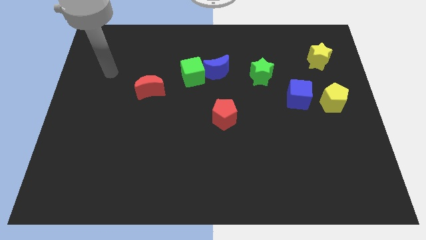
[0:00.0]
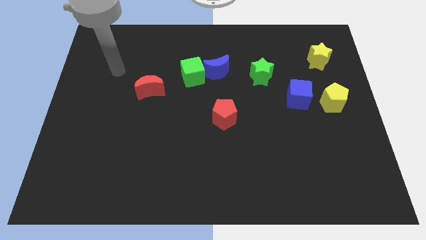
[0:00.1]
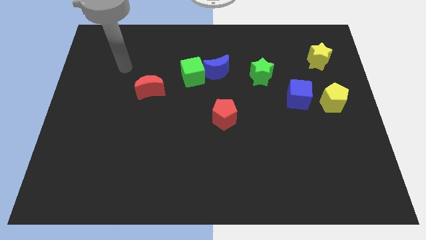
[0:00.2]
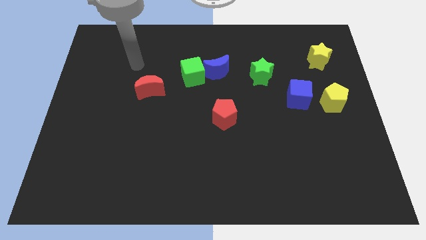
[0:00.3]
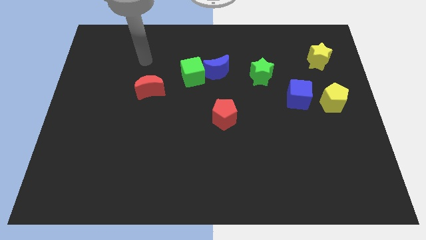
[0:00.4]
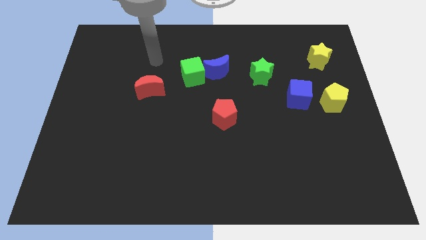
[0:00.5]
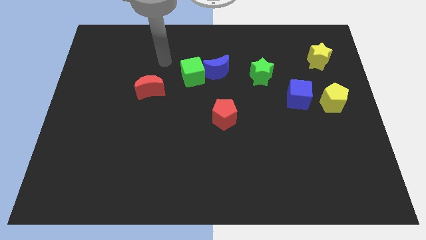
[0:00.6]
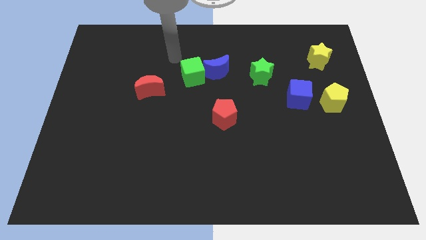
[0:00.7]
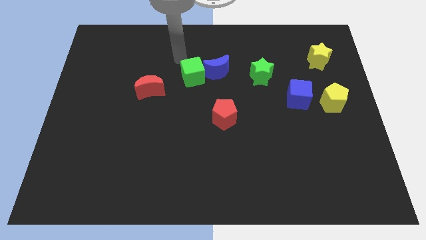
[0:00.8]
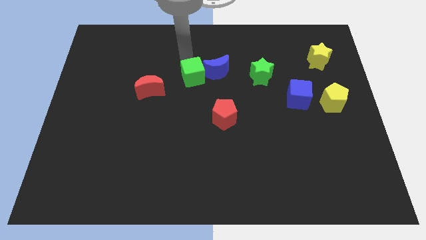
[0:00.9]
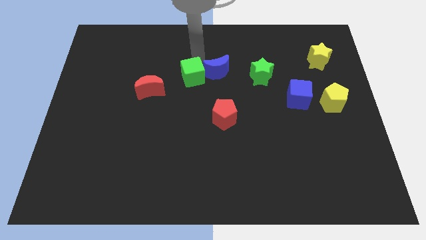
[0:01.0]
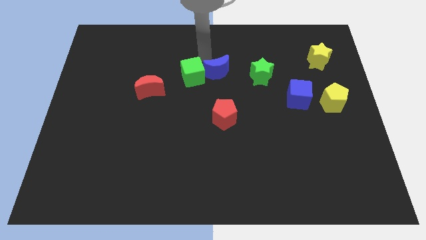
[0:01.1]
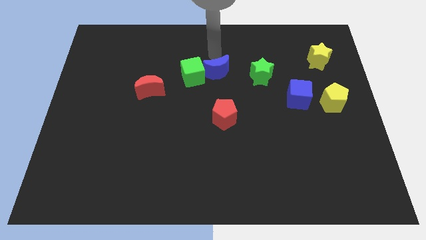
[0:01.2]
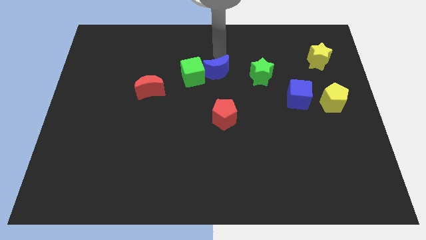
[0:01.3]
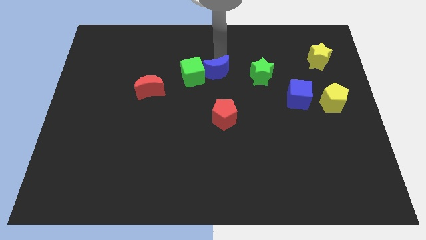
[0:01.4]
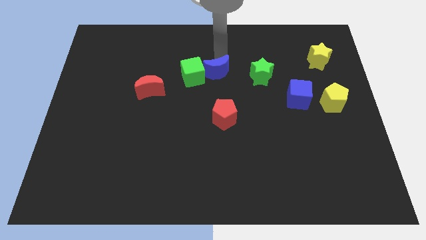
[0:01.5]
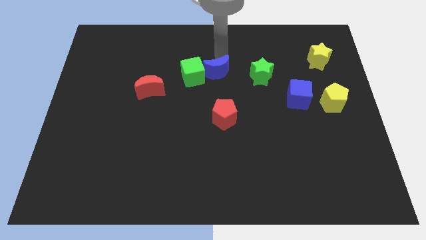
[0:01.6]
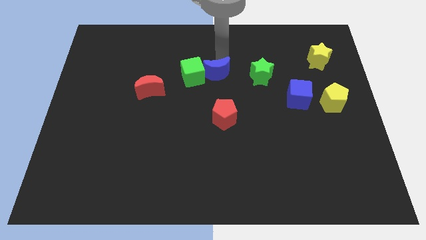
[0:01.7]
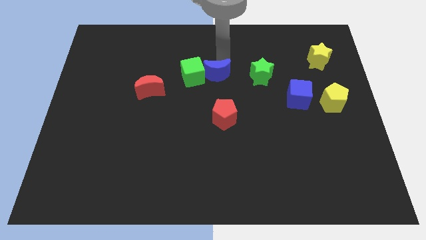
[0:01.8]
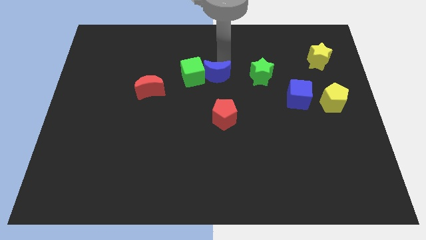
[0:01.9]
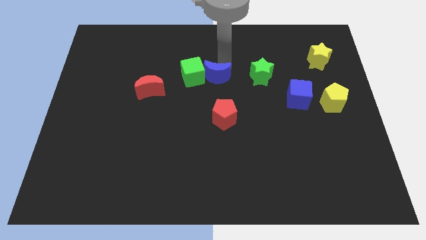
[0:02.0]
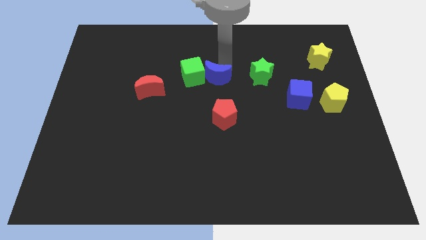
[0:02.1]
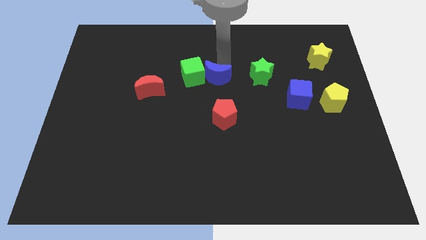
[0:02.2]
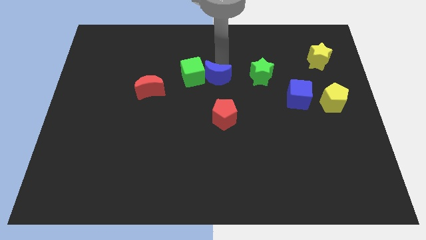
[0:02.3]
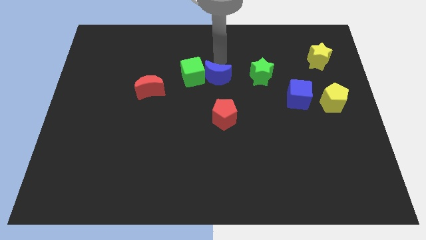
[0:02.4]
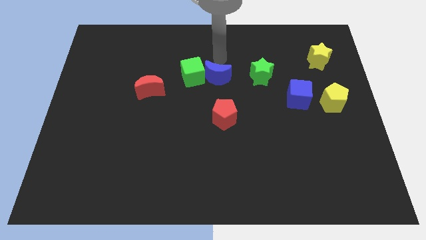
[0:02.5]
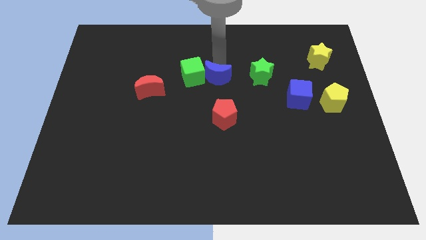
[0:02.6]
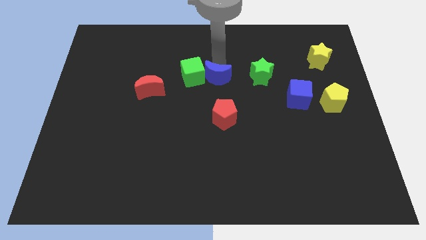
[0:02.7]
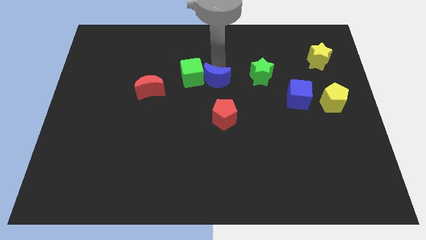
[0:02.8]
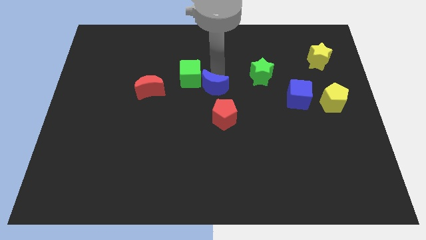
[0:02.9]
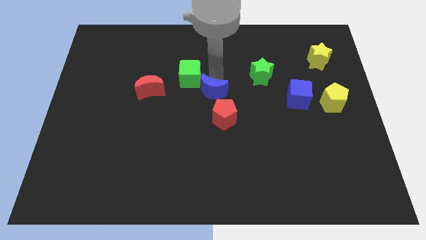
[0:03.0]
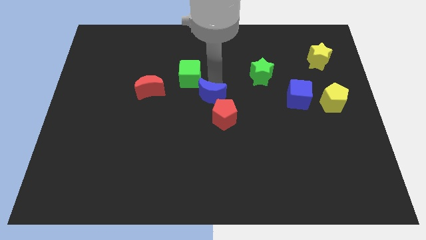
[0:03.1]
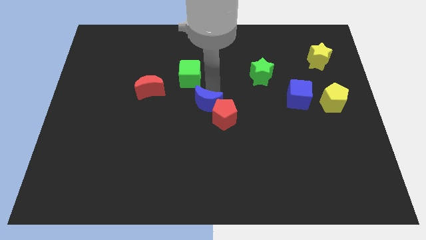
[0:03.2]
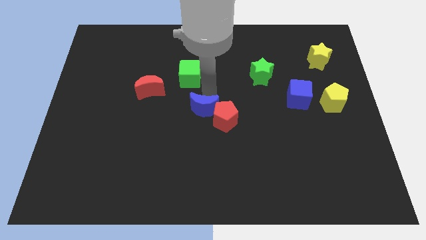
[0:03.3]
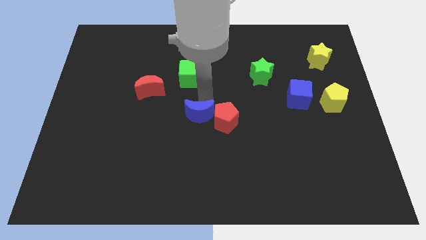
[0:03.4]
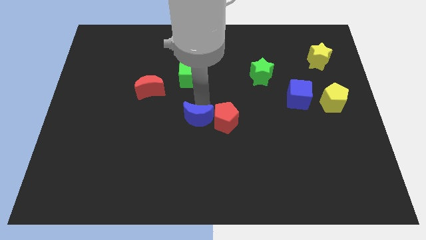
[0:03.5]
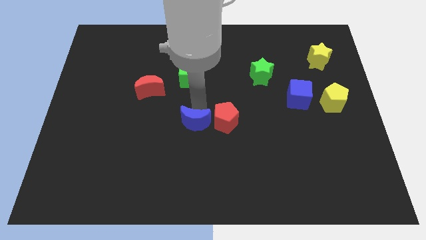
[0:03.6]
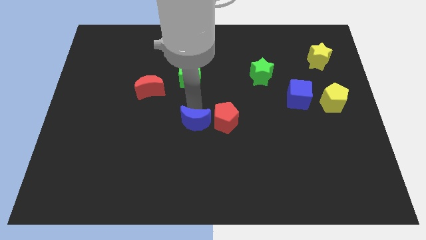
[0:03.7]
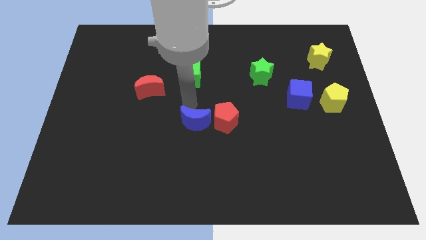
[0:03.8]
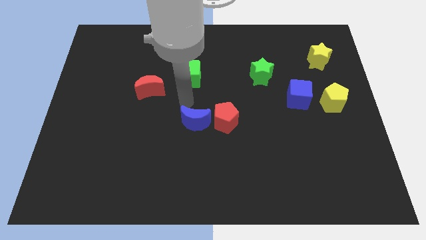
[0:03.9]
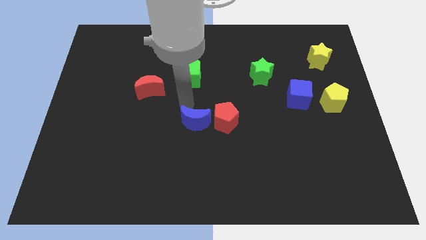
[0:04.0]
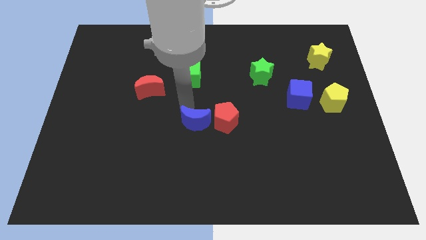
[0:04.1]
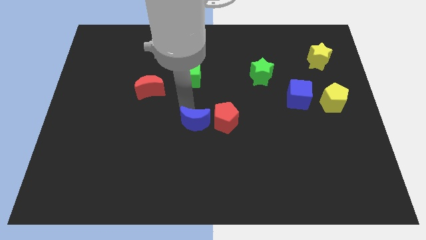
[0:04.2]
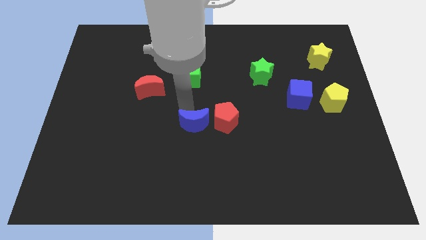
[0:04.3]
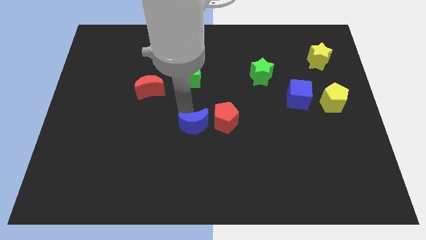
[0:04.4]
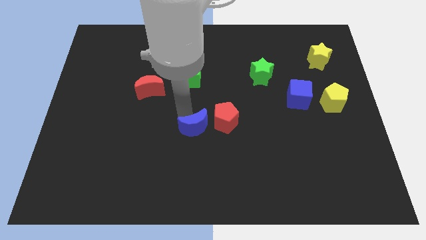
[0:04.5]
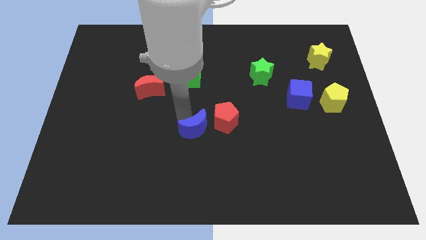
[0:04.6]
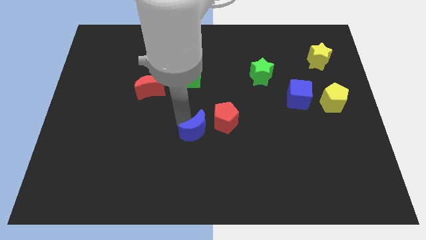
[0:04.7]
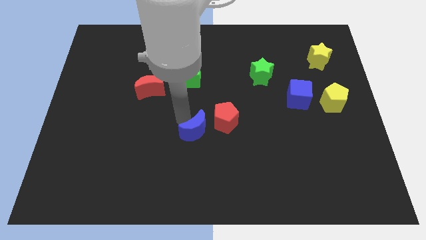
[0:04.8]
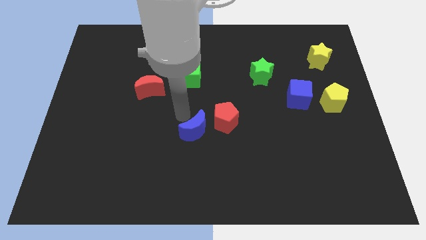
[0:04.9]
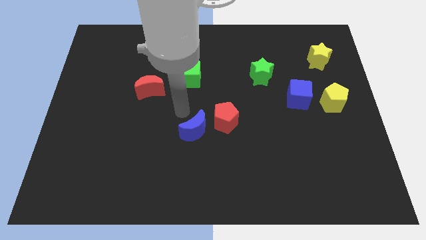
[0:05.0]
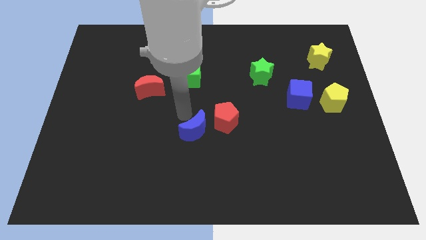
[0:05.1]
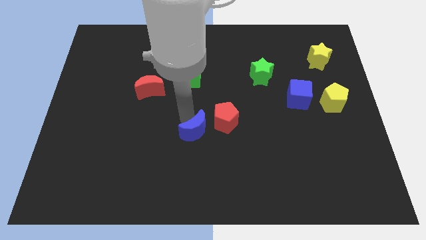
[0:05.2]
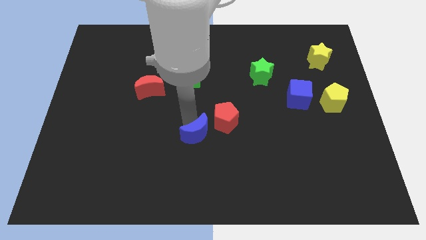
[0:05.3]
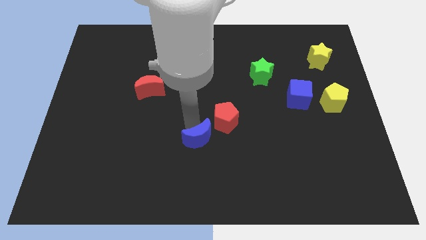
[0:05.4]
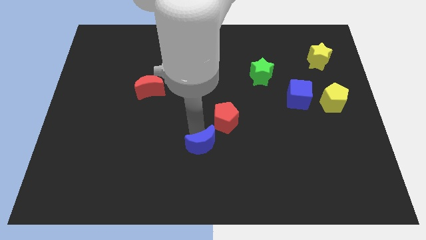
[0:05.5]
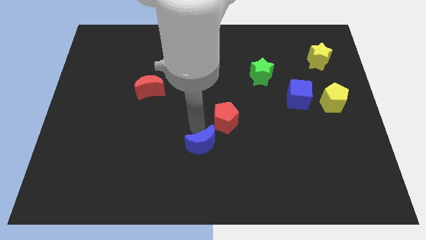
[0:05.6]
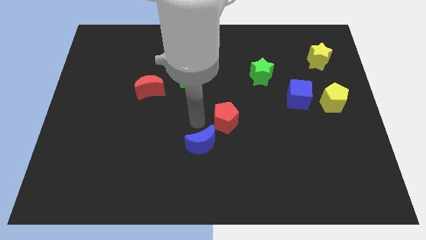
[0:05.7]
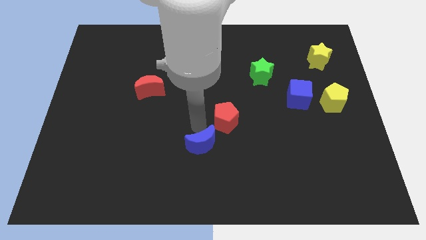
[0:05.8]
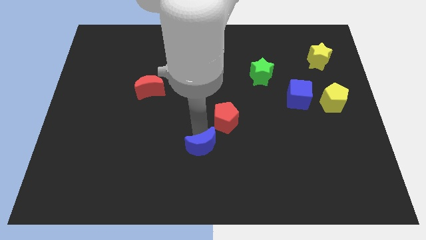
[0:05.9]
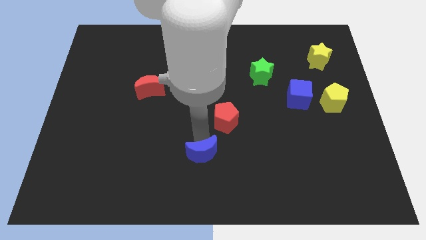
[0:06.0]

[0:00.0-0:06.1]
put the blue moon to the bottom
